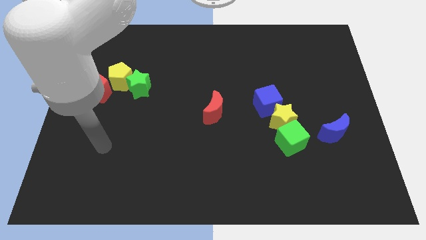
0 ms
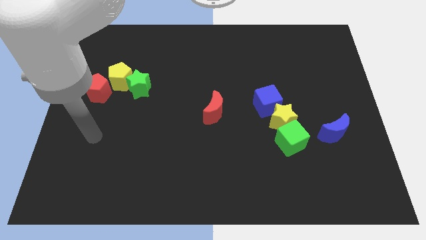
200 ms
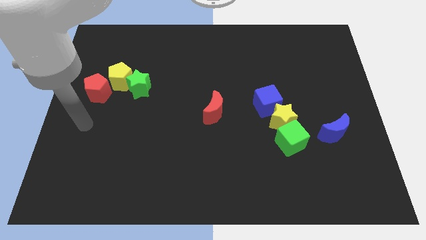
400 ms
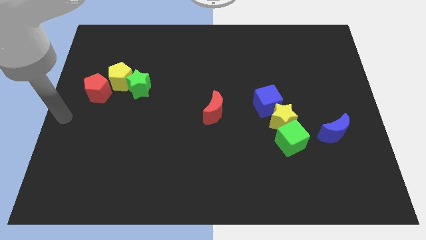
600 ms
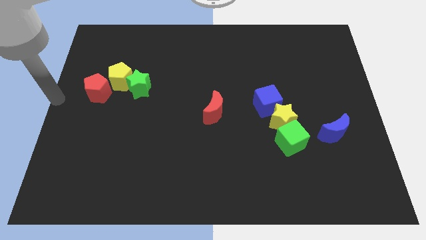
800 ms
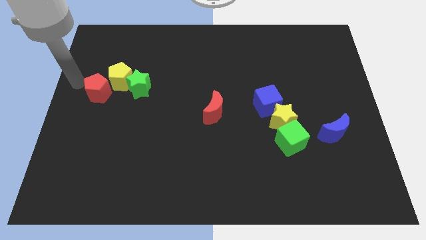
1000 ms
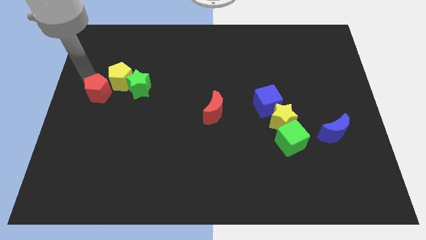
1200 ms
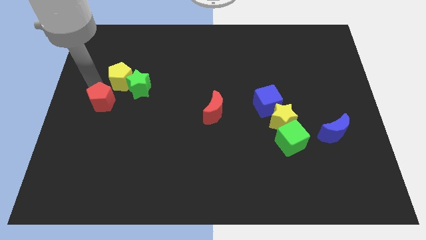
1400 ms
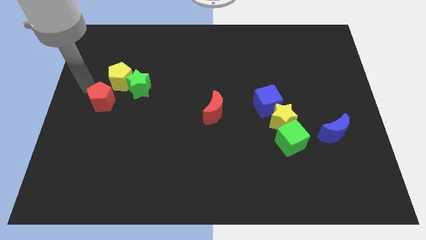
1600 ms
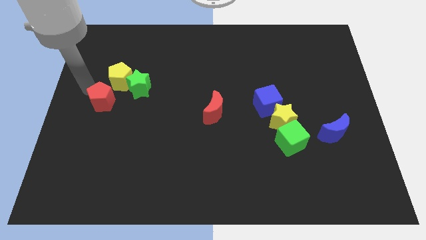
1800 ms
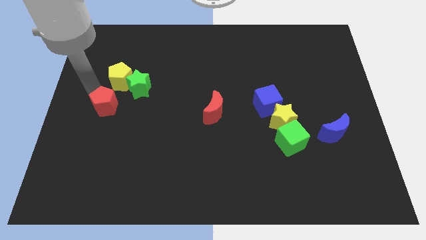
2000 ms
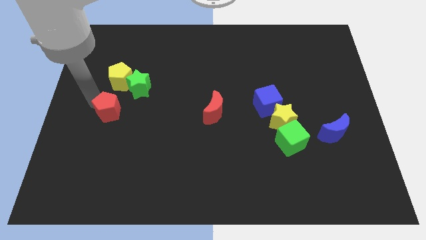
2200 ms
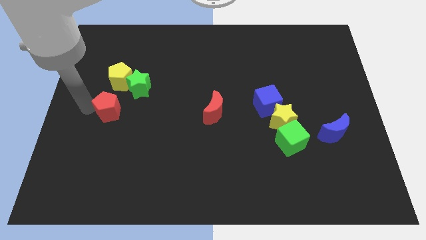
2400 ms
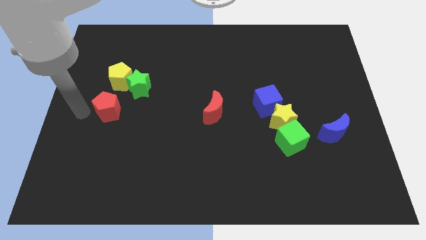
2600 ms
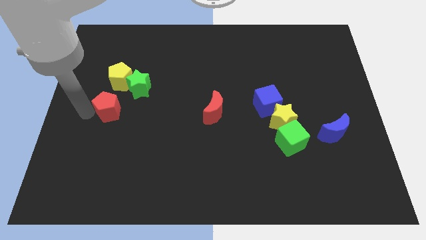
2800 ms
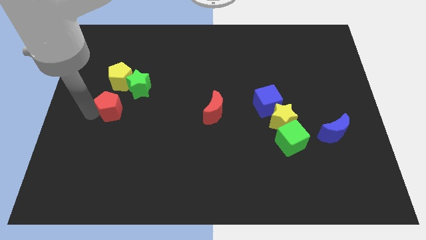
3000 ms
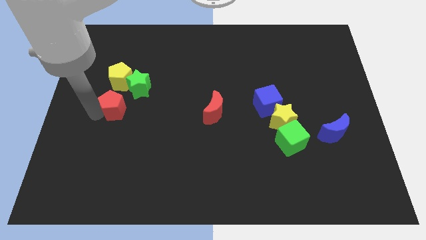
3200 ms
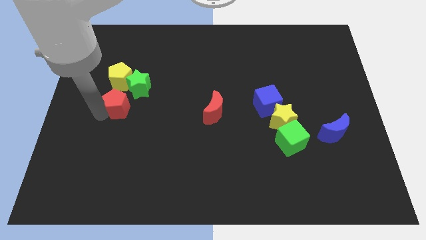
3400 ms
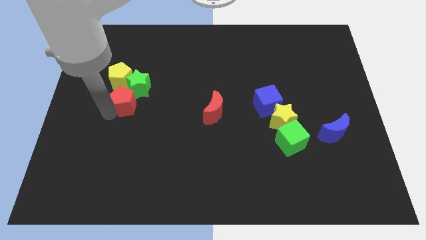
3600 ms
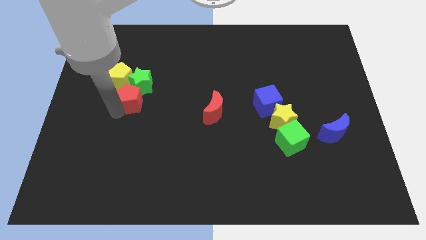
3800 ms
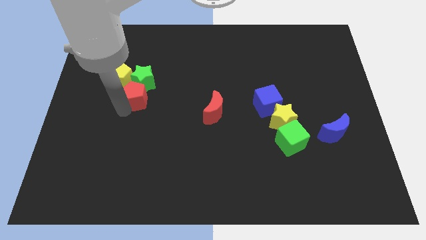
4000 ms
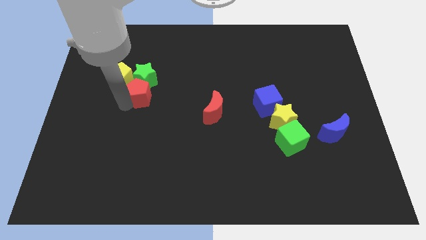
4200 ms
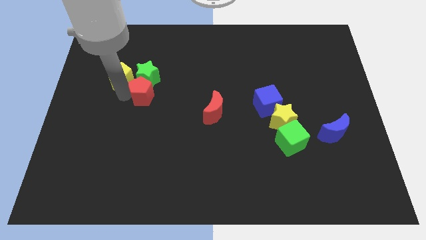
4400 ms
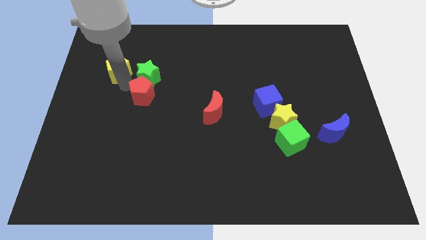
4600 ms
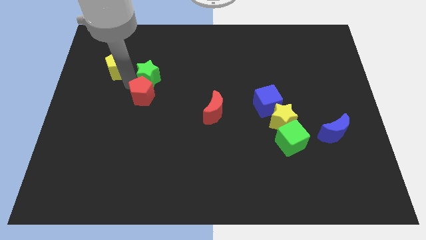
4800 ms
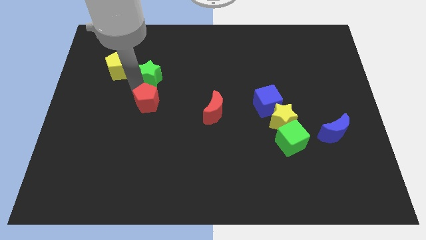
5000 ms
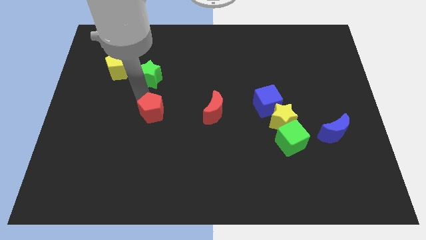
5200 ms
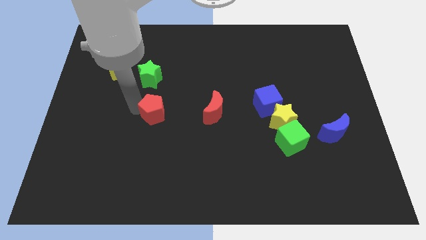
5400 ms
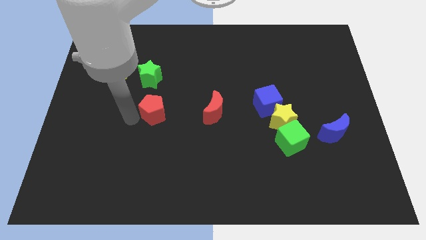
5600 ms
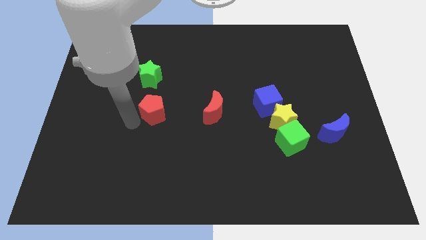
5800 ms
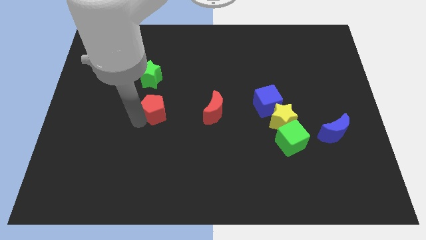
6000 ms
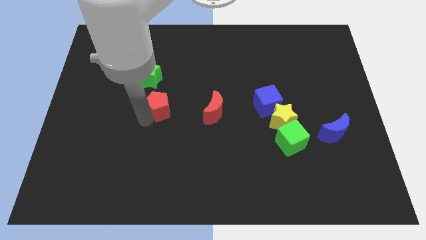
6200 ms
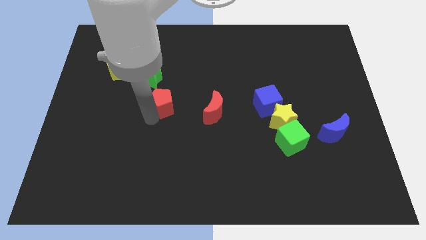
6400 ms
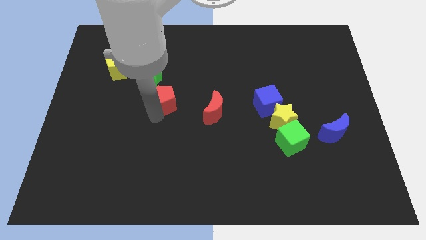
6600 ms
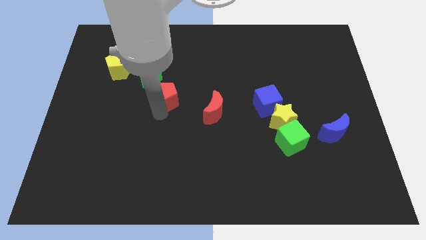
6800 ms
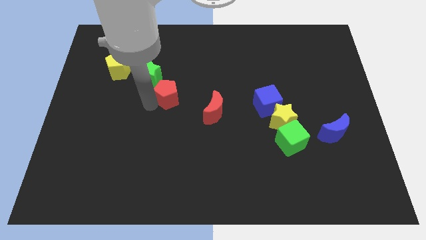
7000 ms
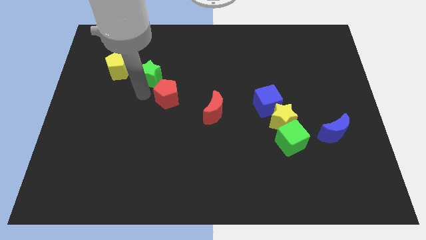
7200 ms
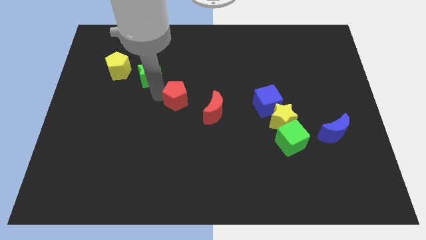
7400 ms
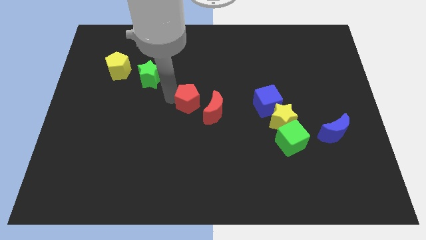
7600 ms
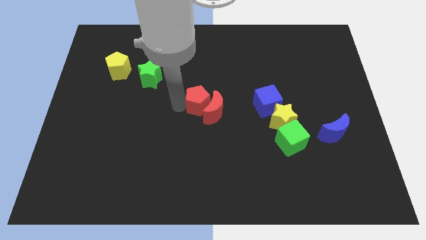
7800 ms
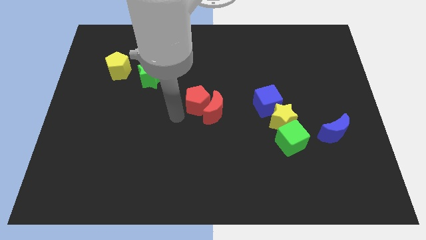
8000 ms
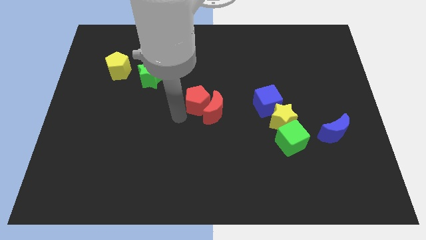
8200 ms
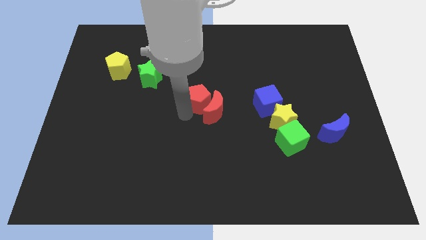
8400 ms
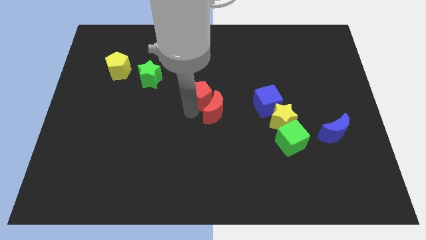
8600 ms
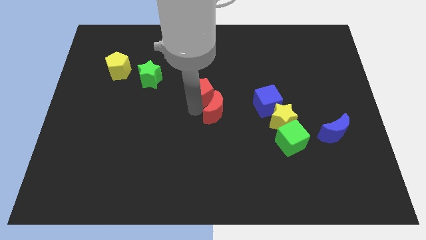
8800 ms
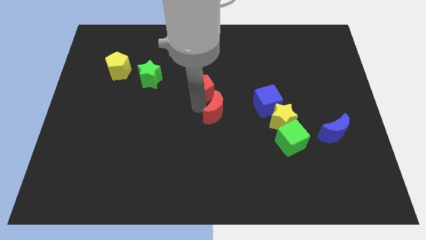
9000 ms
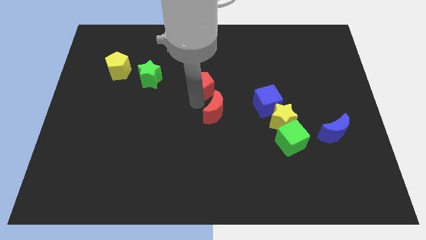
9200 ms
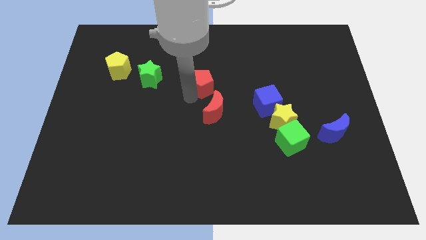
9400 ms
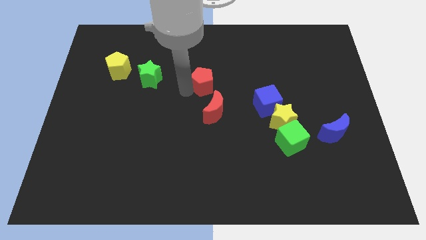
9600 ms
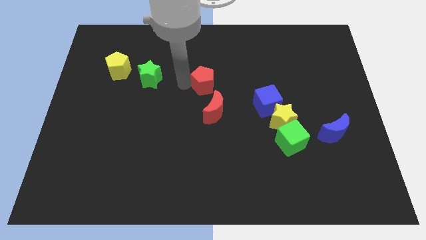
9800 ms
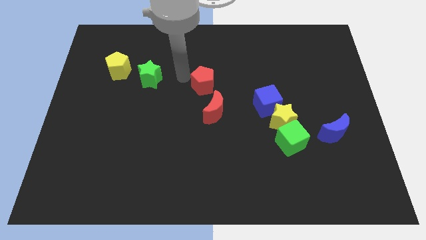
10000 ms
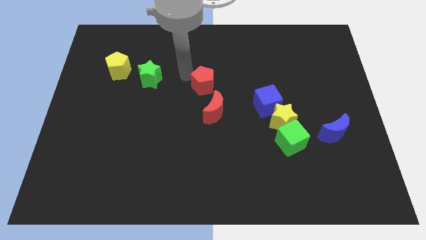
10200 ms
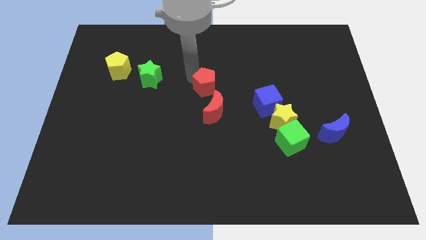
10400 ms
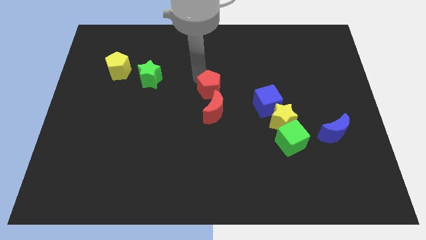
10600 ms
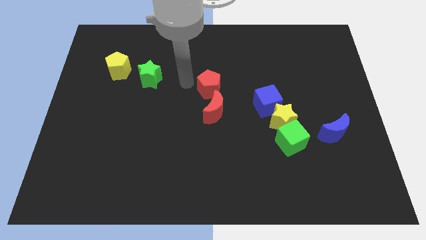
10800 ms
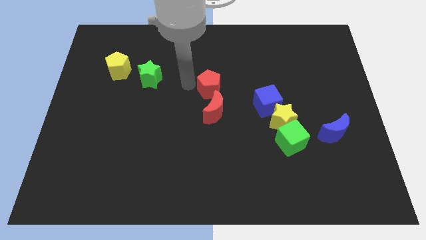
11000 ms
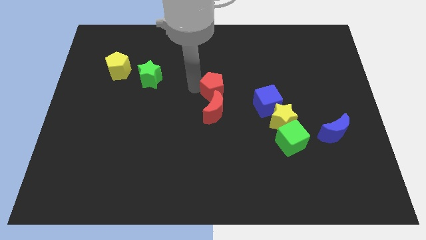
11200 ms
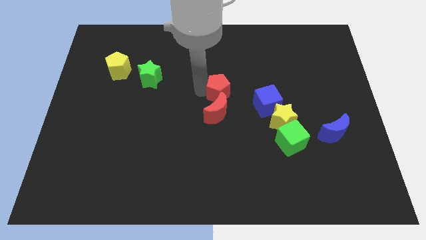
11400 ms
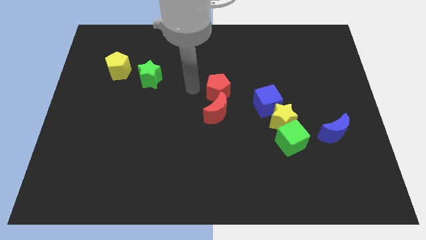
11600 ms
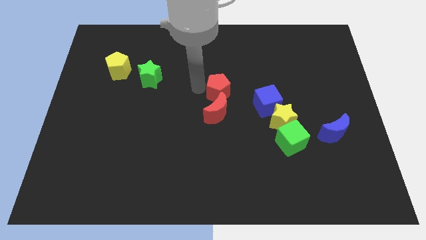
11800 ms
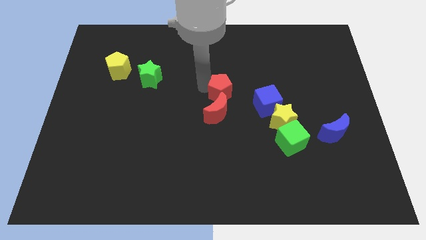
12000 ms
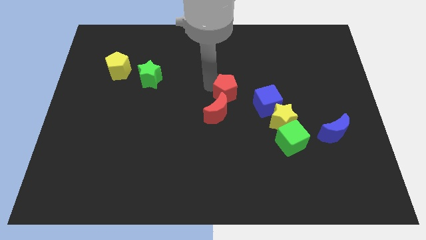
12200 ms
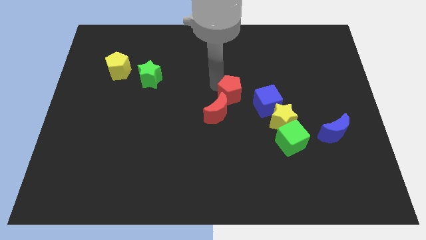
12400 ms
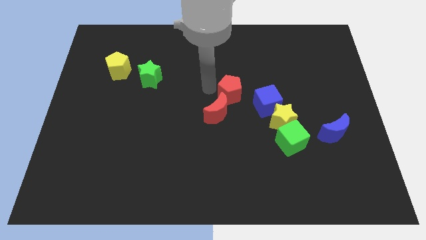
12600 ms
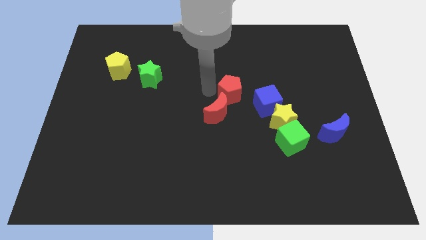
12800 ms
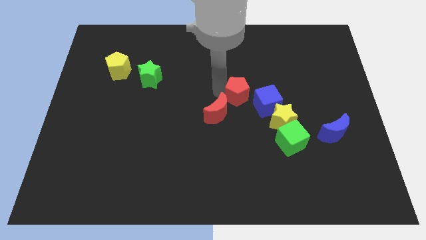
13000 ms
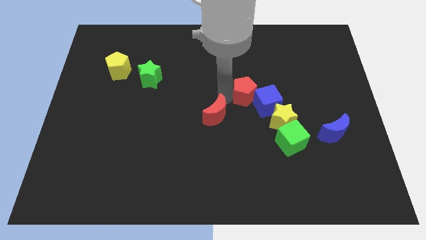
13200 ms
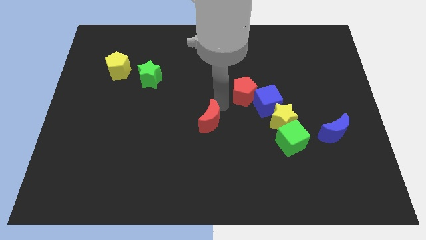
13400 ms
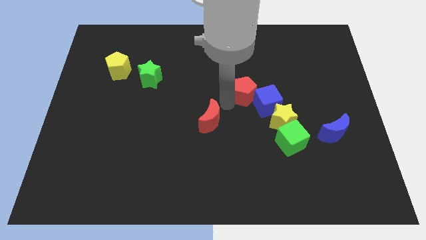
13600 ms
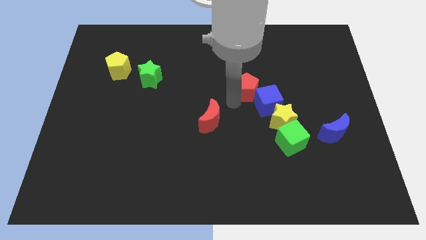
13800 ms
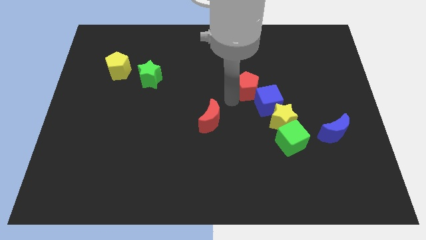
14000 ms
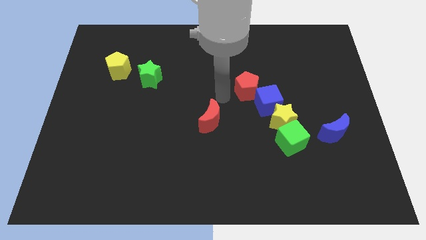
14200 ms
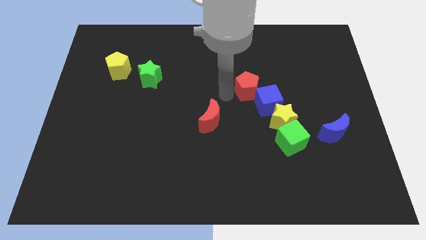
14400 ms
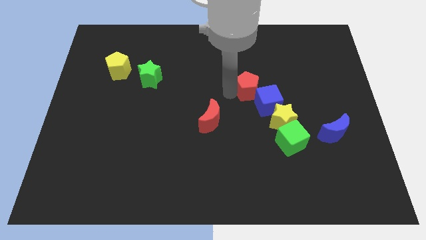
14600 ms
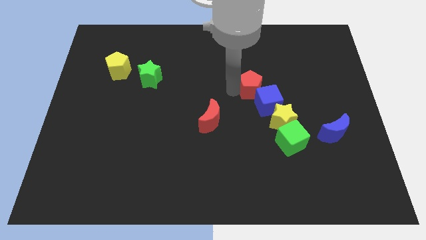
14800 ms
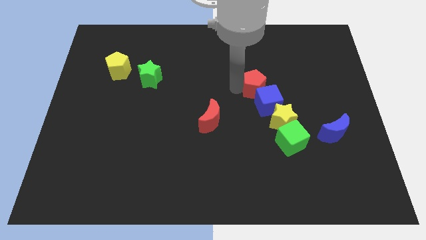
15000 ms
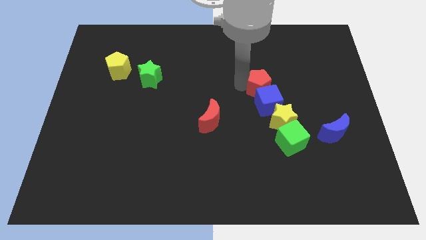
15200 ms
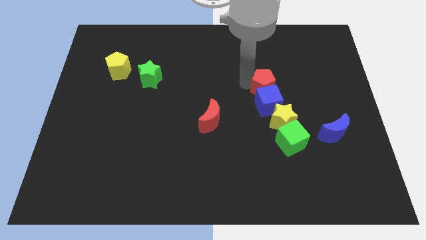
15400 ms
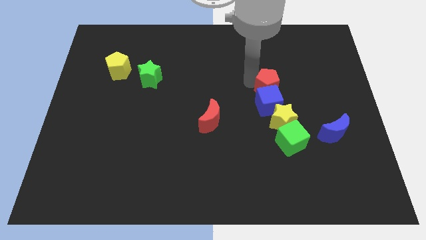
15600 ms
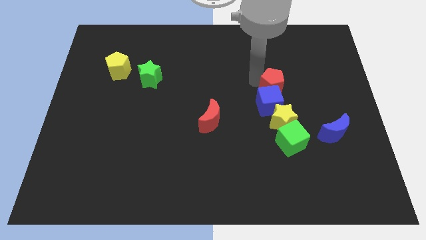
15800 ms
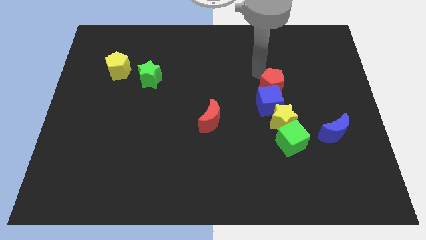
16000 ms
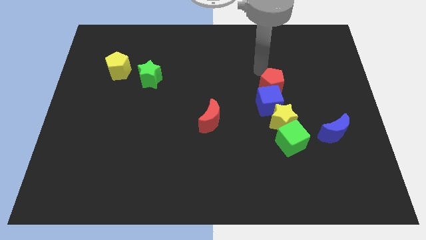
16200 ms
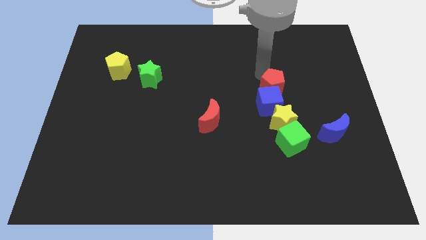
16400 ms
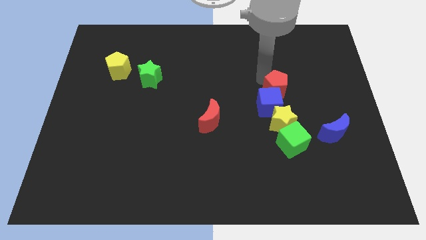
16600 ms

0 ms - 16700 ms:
put the red pentagon to the top side of the green cube
